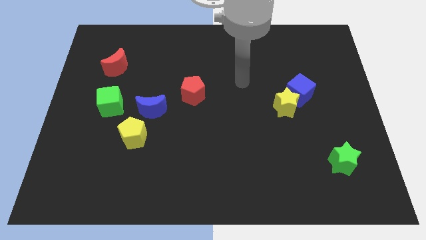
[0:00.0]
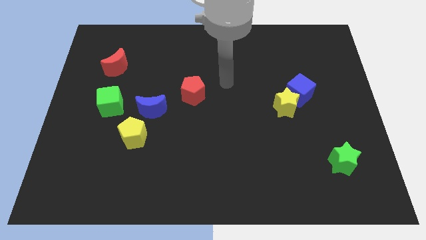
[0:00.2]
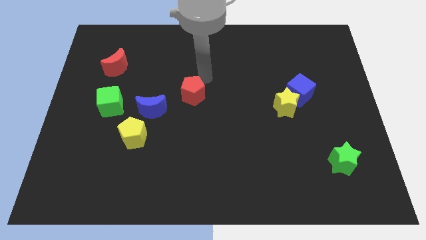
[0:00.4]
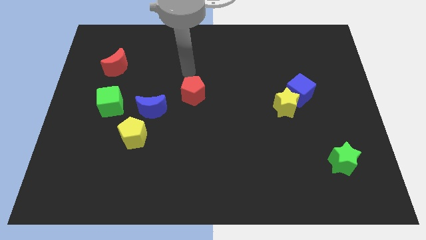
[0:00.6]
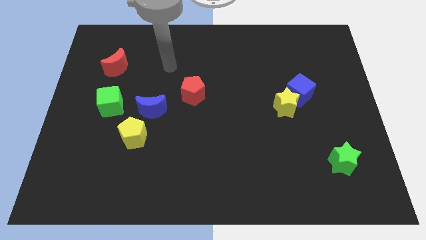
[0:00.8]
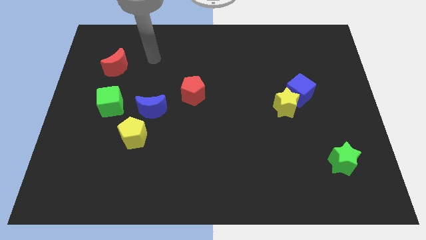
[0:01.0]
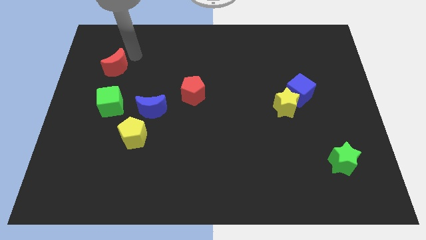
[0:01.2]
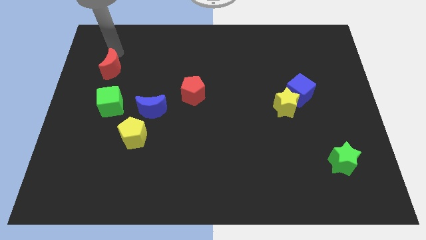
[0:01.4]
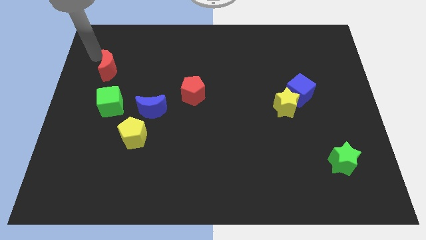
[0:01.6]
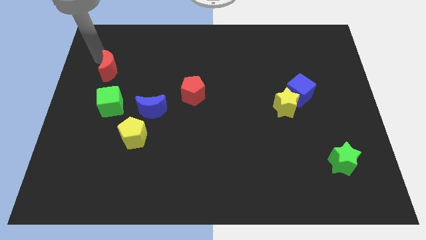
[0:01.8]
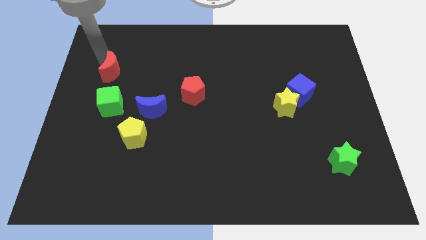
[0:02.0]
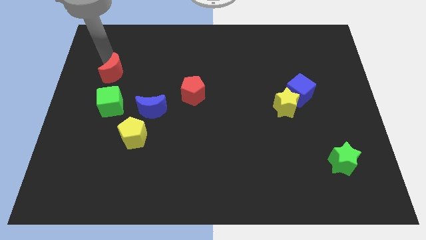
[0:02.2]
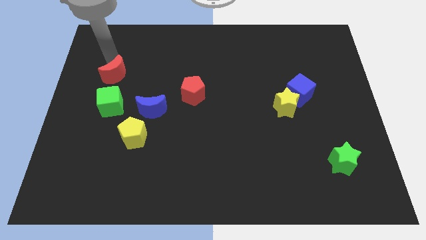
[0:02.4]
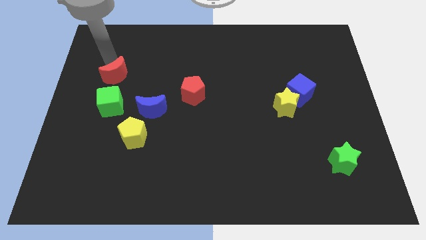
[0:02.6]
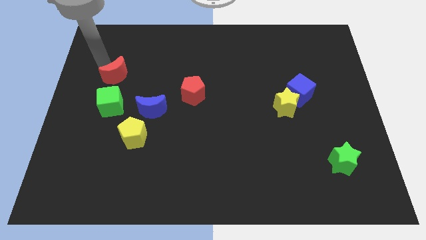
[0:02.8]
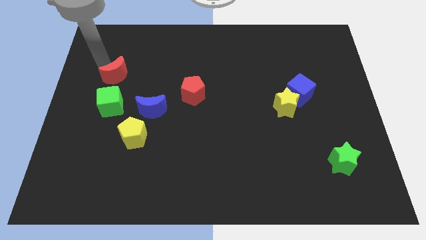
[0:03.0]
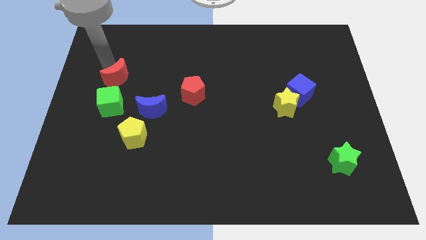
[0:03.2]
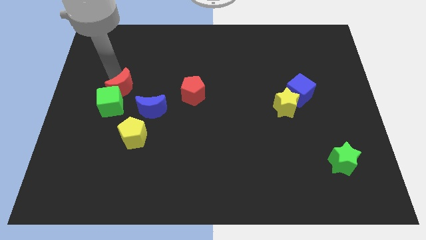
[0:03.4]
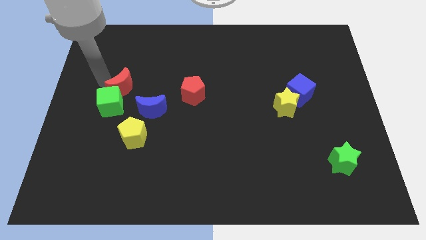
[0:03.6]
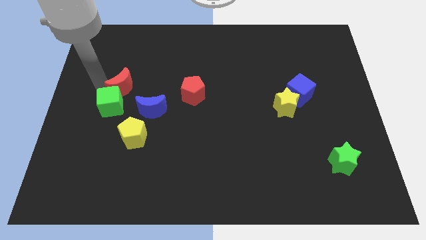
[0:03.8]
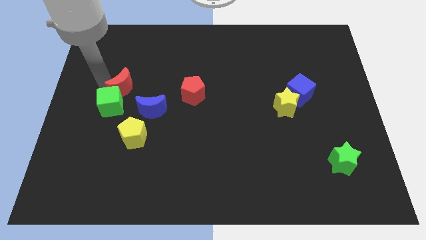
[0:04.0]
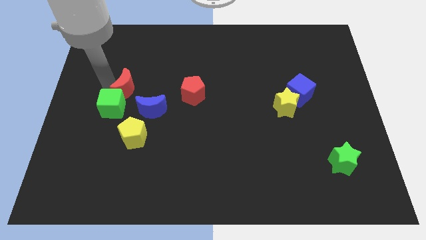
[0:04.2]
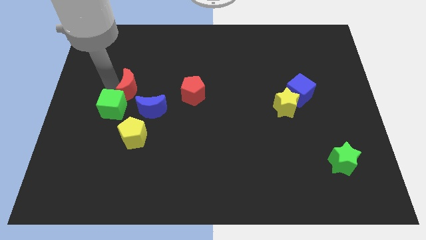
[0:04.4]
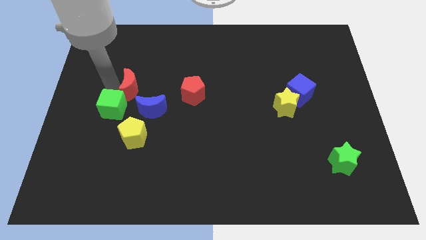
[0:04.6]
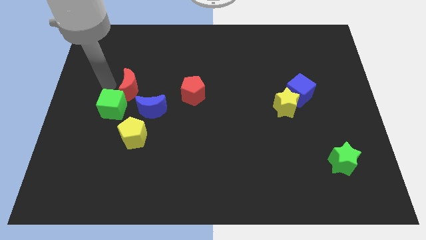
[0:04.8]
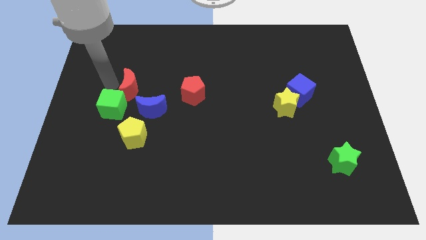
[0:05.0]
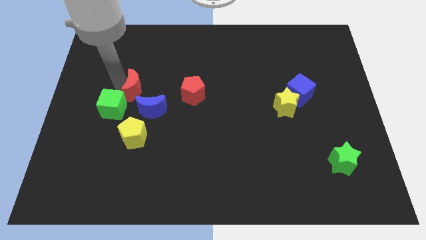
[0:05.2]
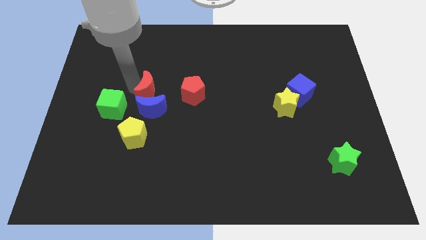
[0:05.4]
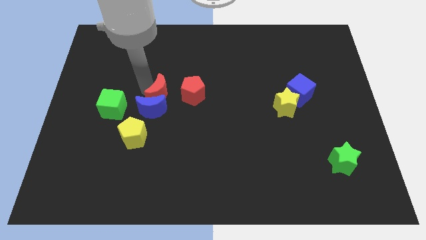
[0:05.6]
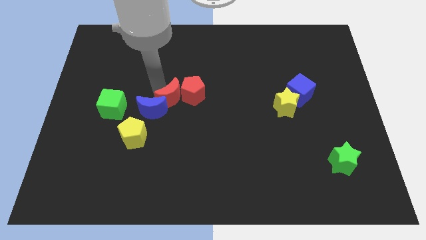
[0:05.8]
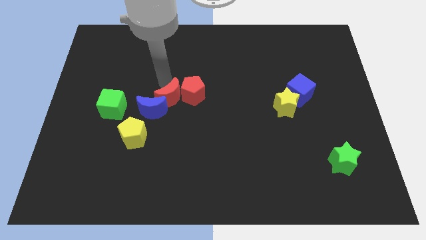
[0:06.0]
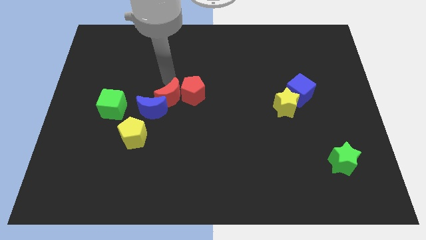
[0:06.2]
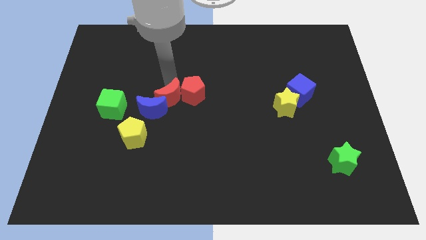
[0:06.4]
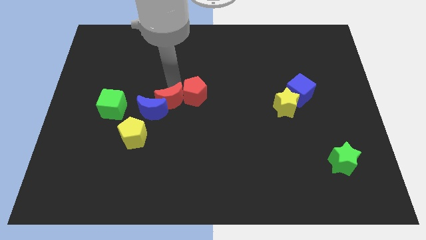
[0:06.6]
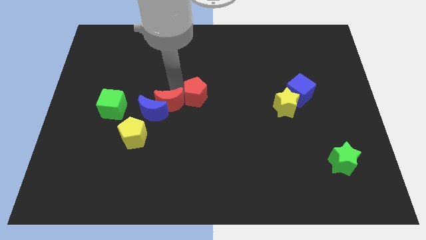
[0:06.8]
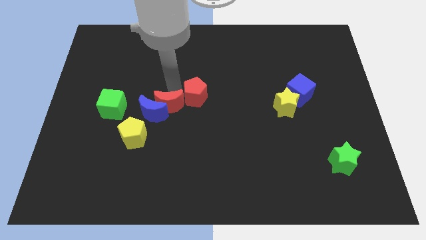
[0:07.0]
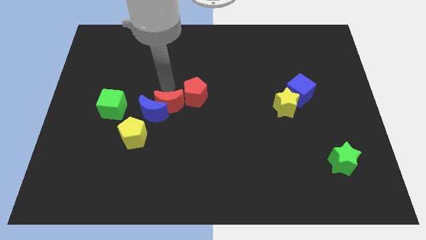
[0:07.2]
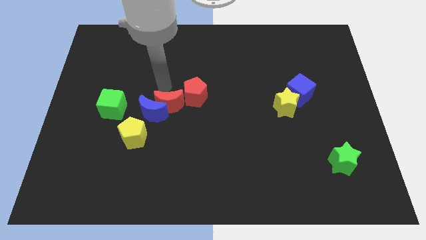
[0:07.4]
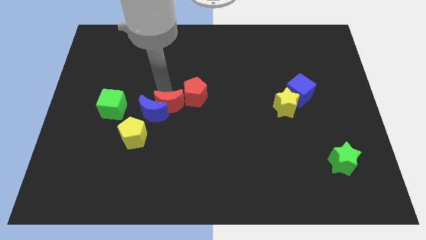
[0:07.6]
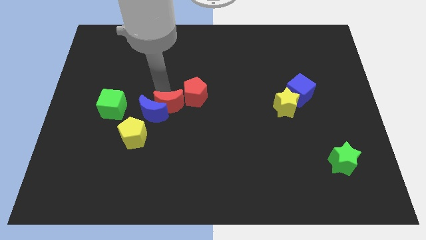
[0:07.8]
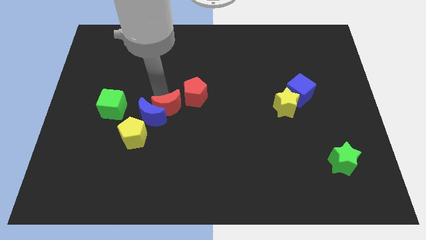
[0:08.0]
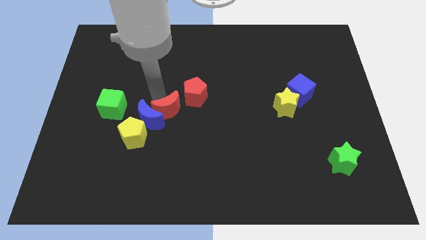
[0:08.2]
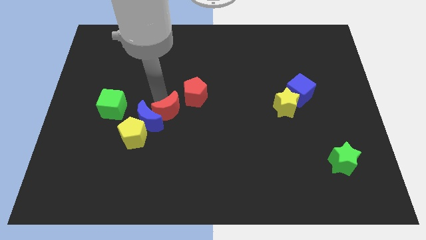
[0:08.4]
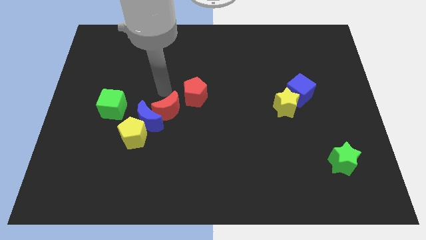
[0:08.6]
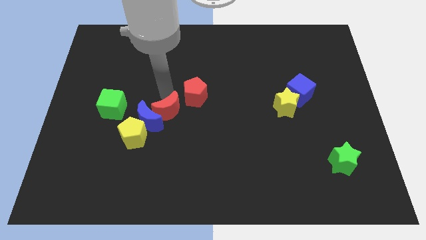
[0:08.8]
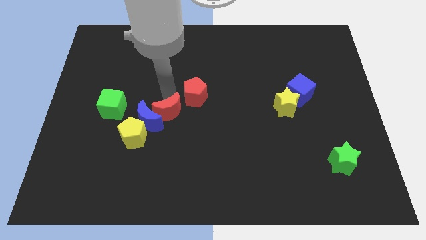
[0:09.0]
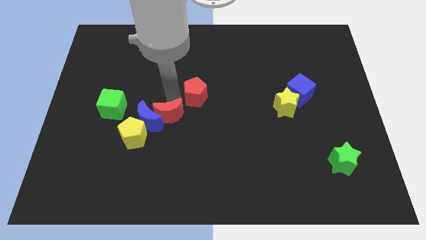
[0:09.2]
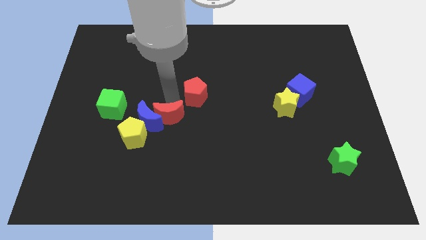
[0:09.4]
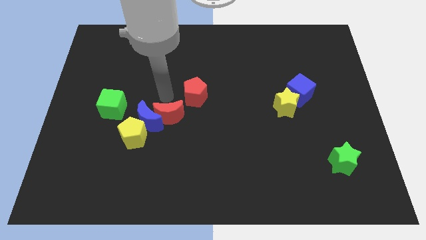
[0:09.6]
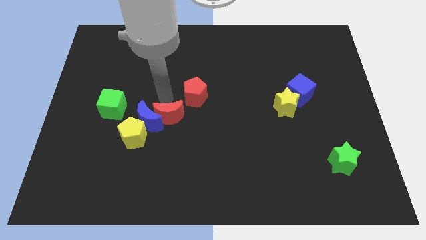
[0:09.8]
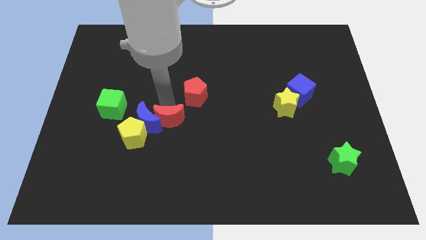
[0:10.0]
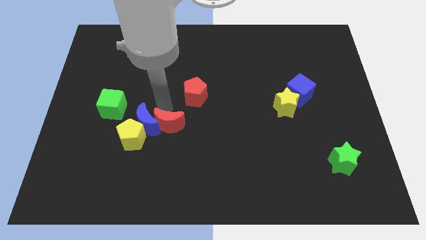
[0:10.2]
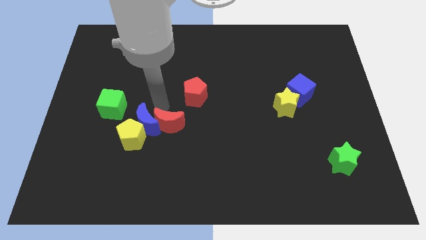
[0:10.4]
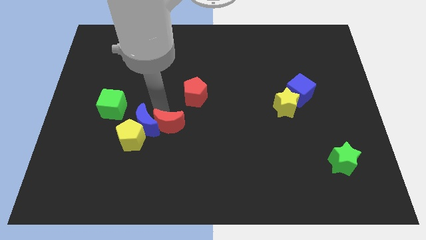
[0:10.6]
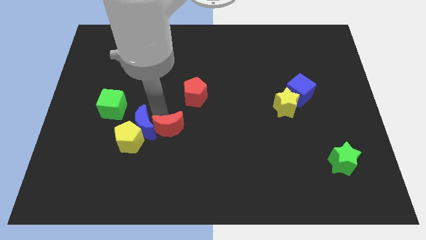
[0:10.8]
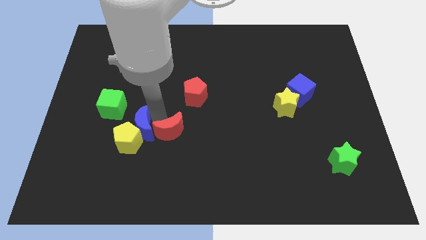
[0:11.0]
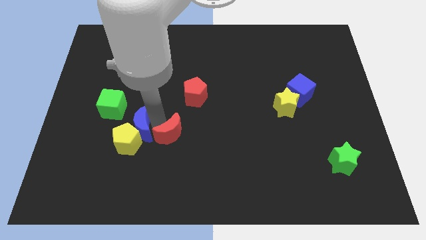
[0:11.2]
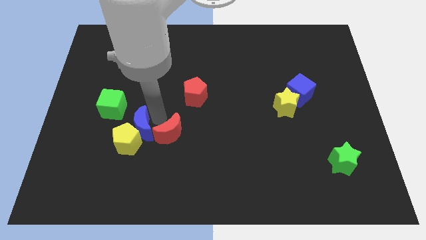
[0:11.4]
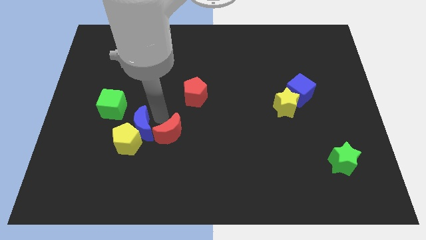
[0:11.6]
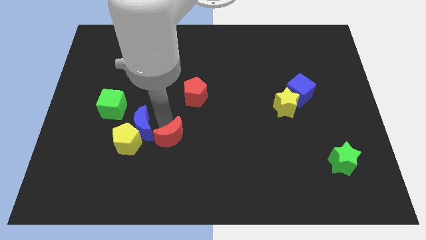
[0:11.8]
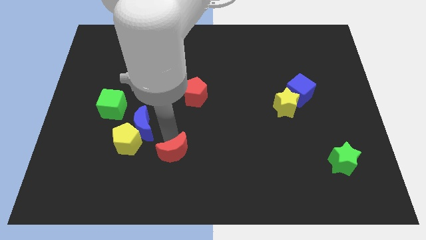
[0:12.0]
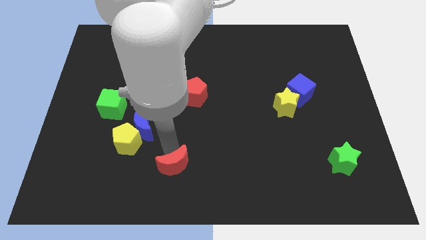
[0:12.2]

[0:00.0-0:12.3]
put the red moon to the bottom side
